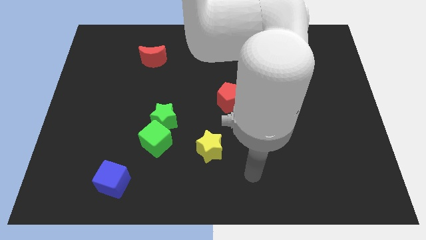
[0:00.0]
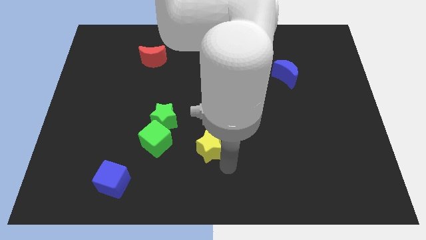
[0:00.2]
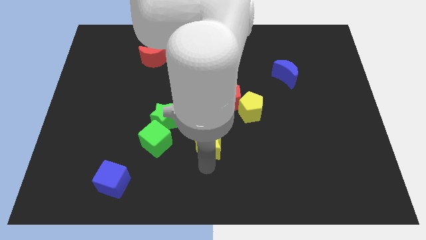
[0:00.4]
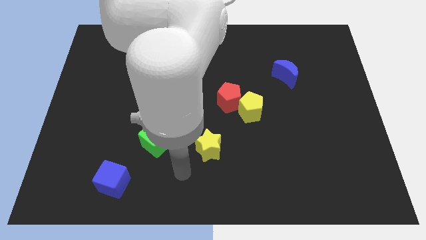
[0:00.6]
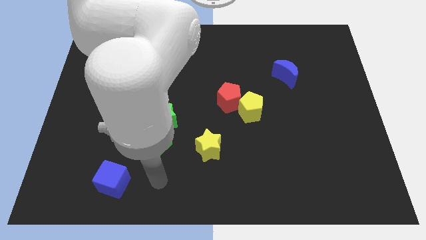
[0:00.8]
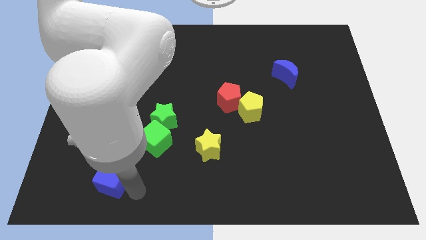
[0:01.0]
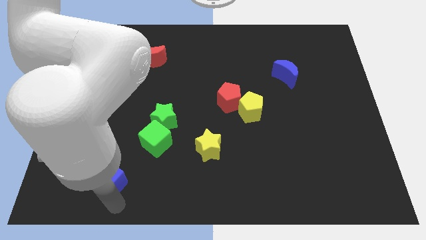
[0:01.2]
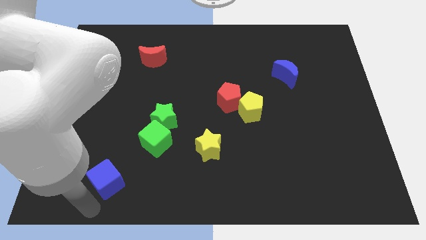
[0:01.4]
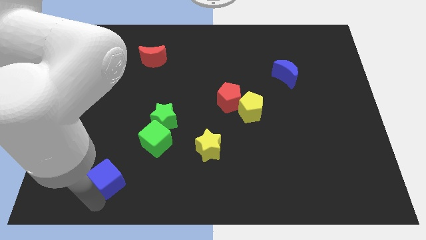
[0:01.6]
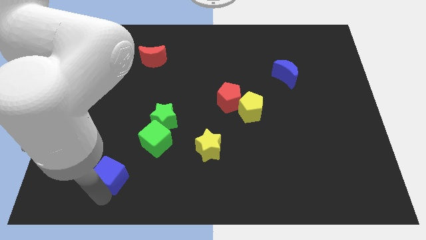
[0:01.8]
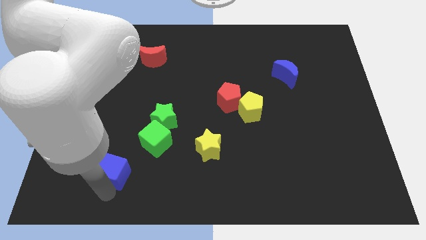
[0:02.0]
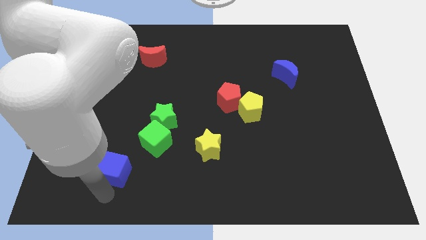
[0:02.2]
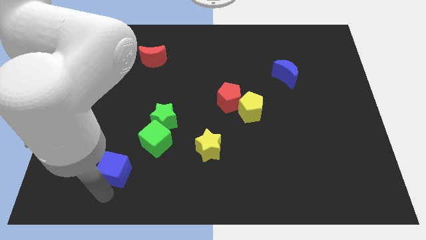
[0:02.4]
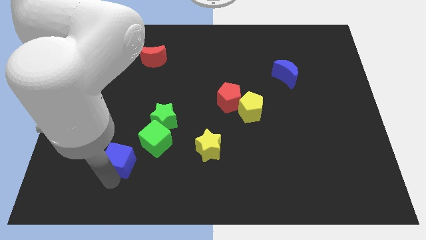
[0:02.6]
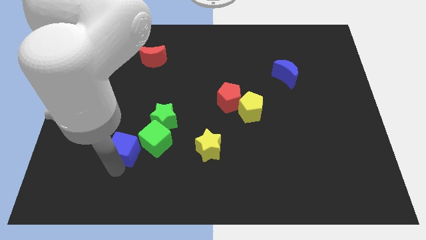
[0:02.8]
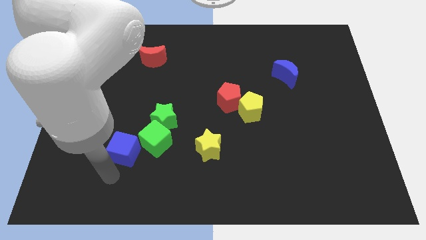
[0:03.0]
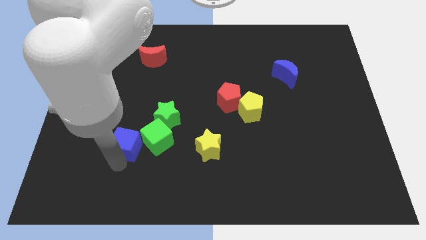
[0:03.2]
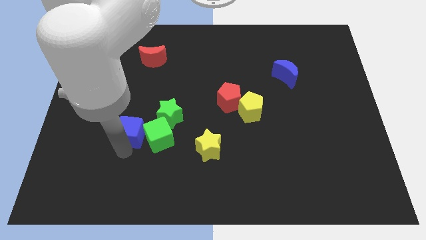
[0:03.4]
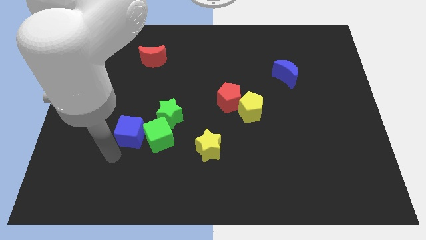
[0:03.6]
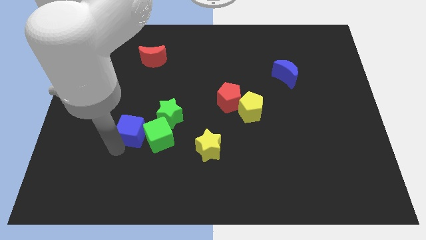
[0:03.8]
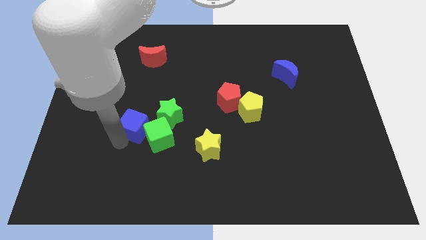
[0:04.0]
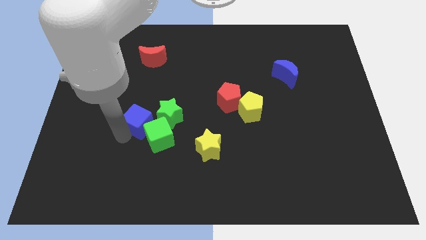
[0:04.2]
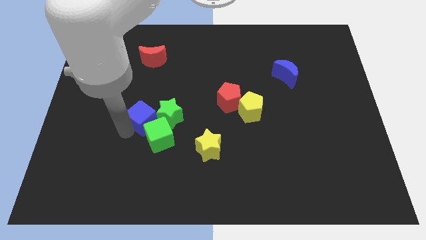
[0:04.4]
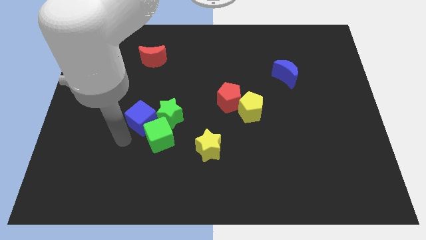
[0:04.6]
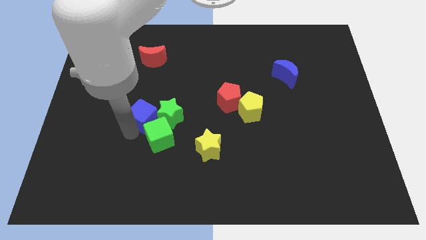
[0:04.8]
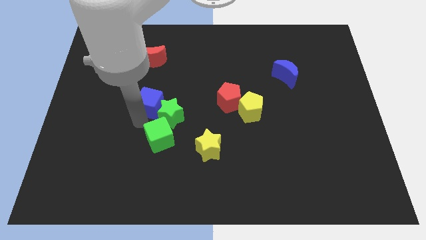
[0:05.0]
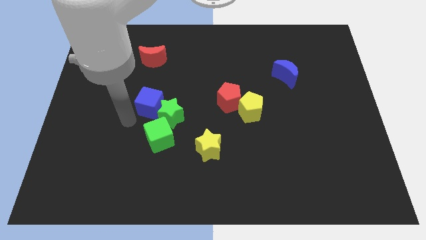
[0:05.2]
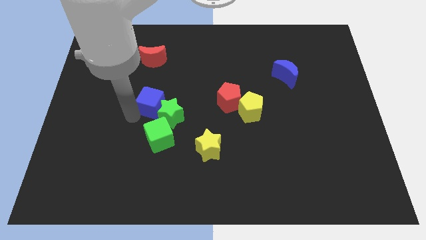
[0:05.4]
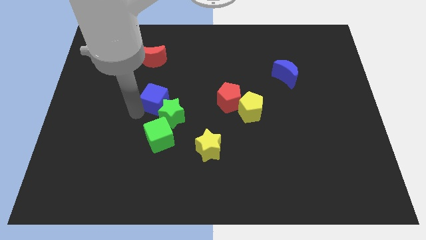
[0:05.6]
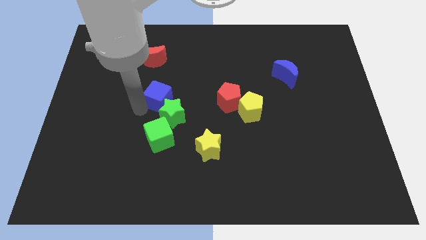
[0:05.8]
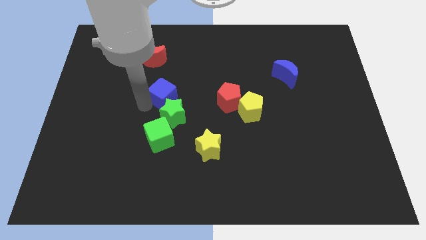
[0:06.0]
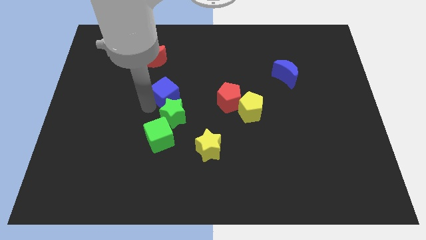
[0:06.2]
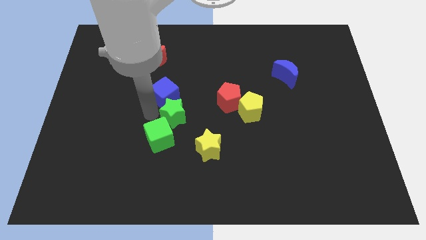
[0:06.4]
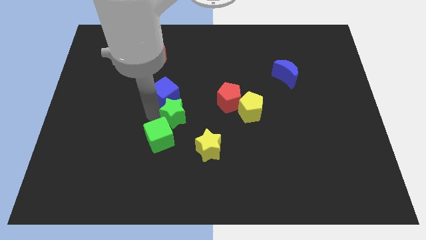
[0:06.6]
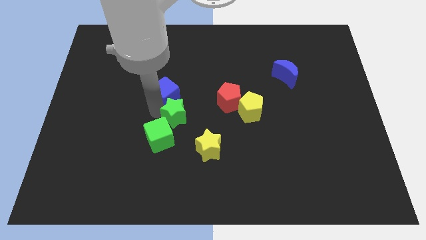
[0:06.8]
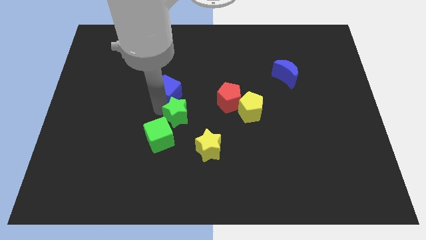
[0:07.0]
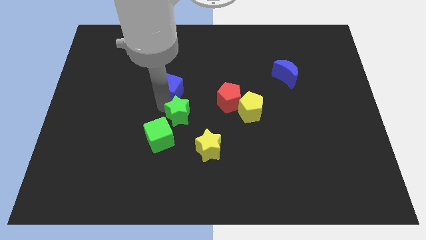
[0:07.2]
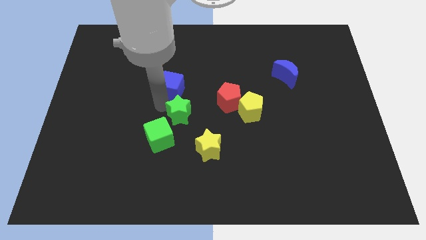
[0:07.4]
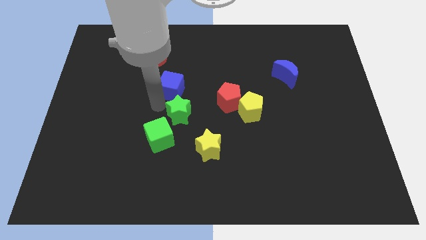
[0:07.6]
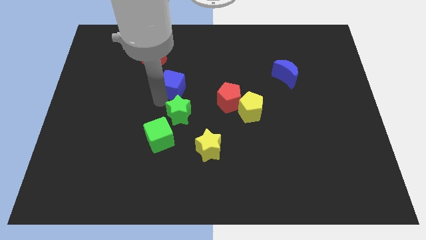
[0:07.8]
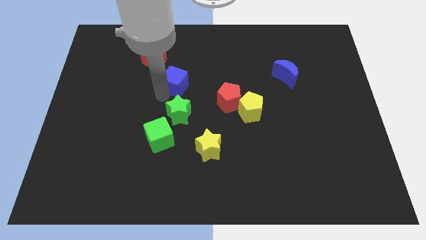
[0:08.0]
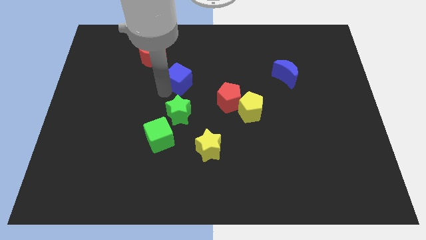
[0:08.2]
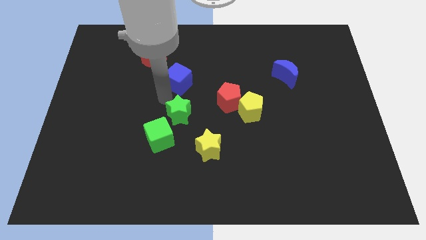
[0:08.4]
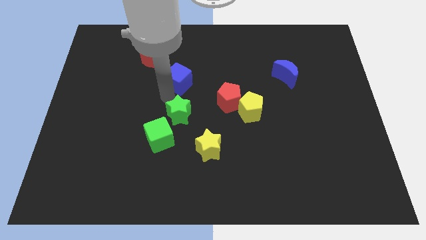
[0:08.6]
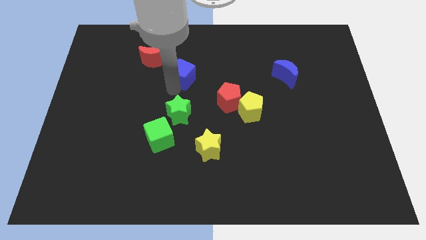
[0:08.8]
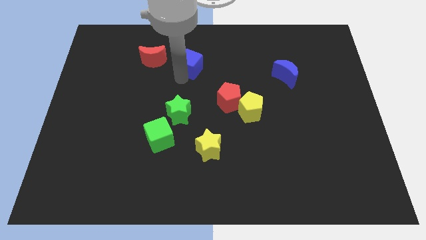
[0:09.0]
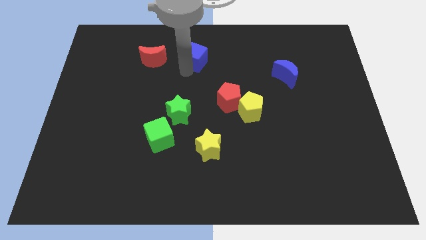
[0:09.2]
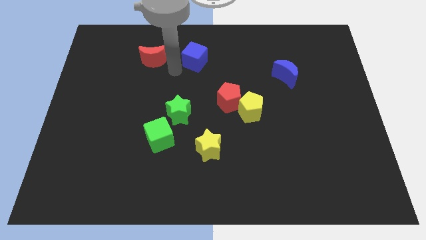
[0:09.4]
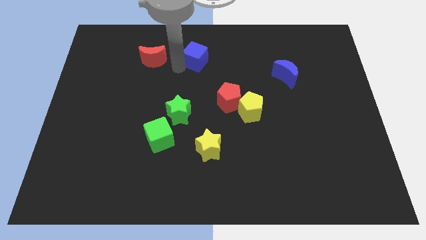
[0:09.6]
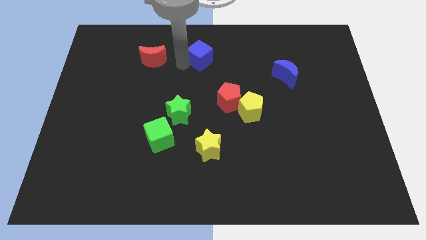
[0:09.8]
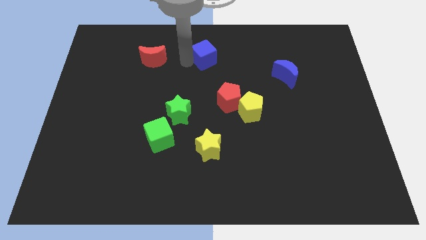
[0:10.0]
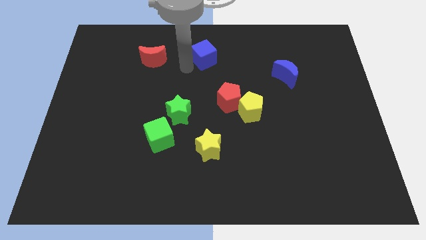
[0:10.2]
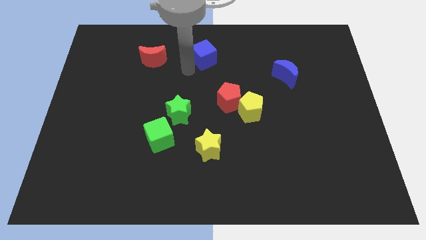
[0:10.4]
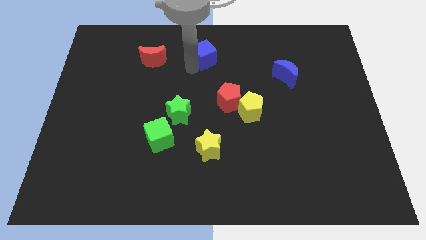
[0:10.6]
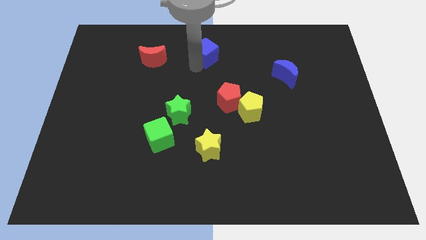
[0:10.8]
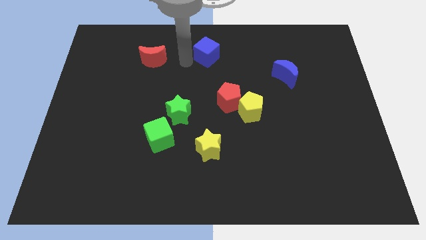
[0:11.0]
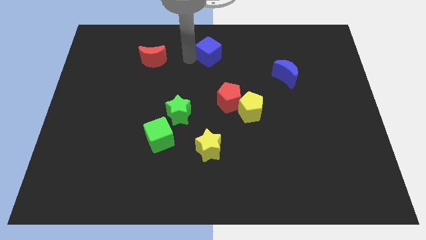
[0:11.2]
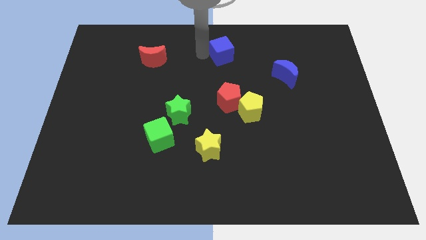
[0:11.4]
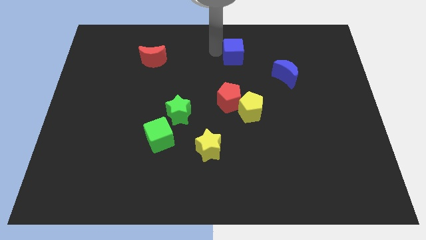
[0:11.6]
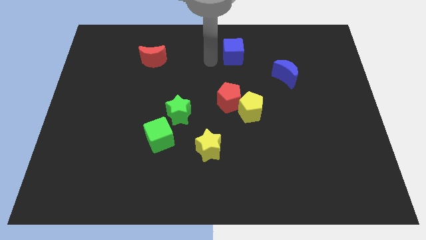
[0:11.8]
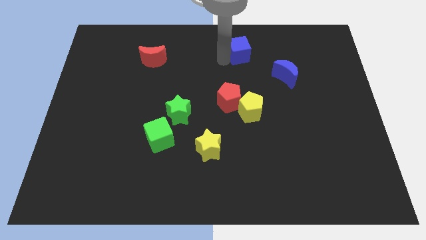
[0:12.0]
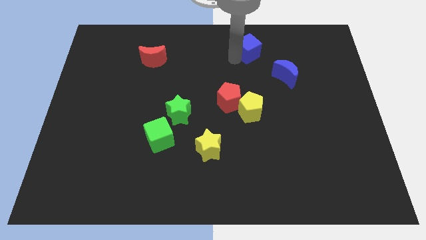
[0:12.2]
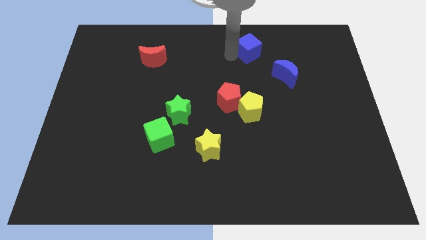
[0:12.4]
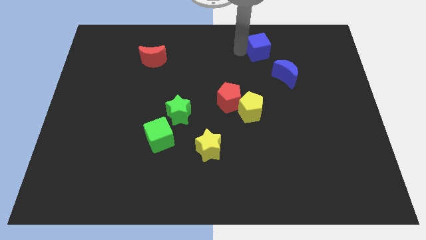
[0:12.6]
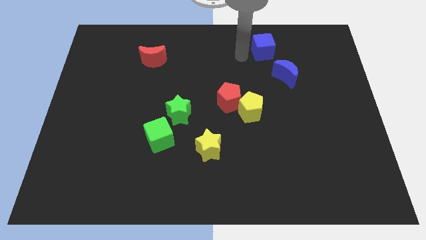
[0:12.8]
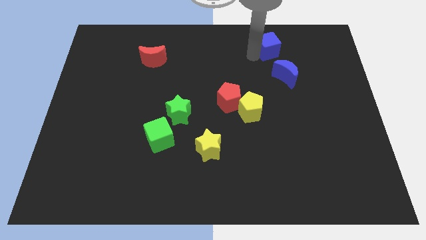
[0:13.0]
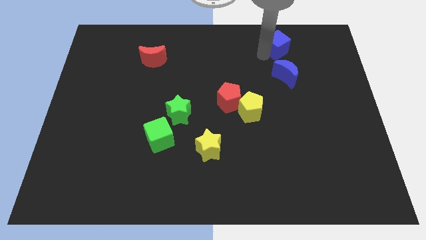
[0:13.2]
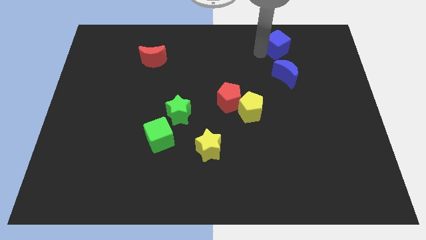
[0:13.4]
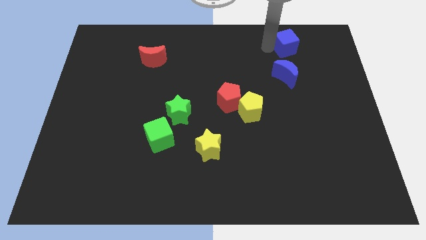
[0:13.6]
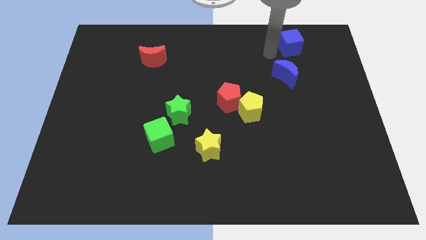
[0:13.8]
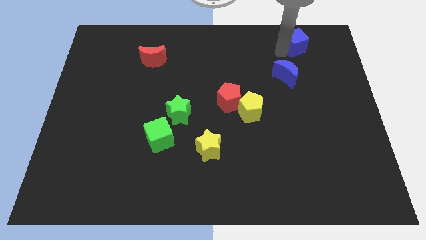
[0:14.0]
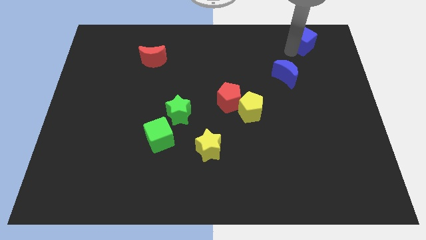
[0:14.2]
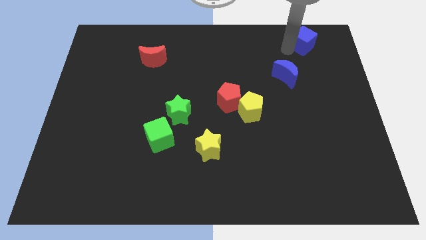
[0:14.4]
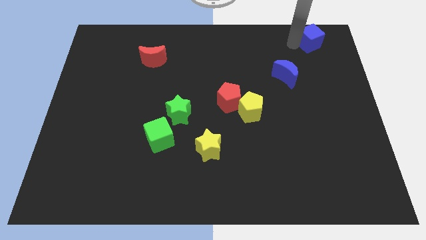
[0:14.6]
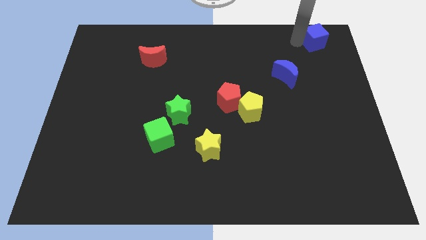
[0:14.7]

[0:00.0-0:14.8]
put the blue cube to the top right corner
